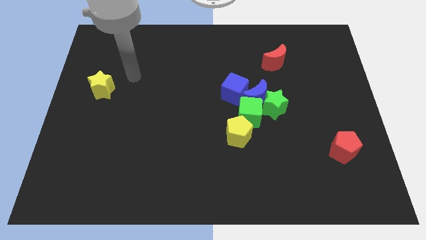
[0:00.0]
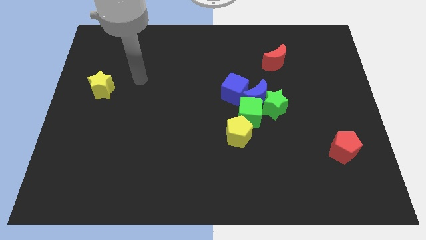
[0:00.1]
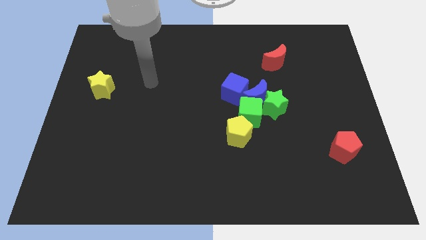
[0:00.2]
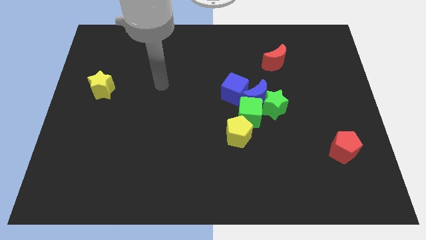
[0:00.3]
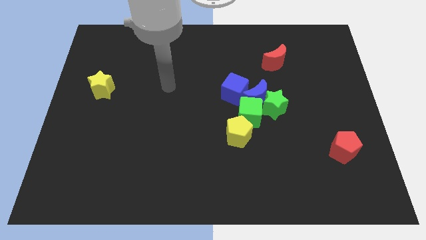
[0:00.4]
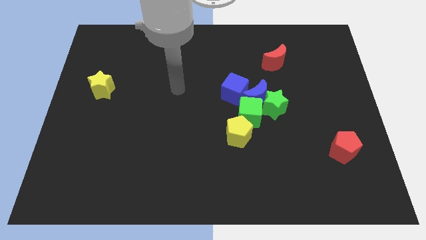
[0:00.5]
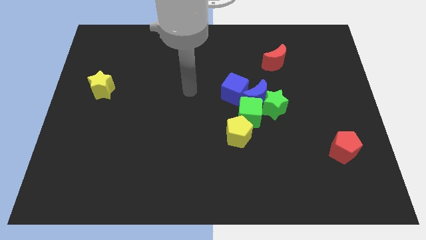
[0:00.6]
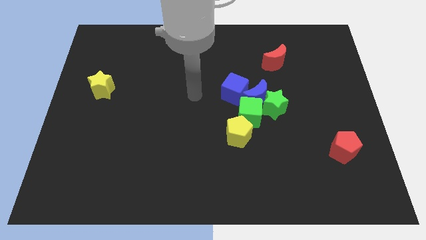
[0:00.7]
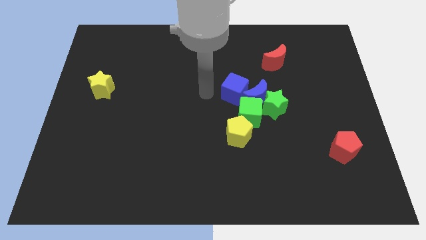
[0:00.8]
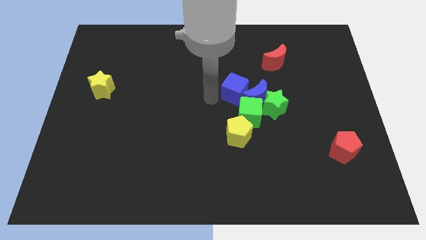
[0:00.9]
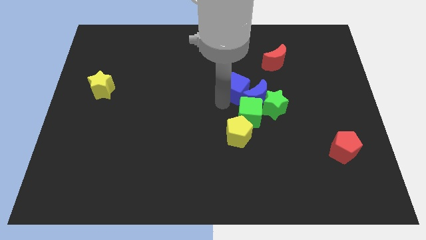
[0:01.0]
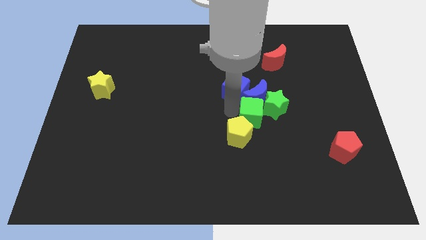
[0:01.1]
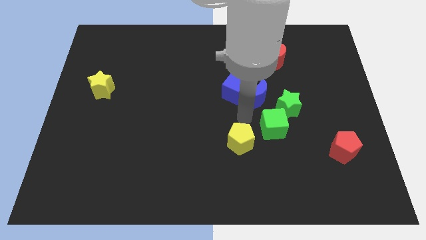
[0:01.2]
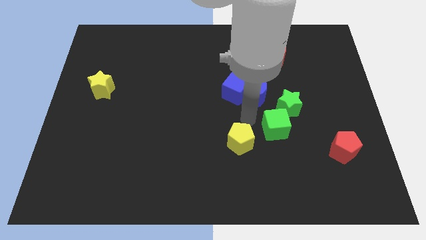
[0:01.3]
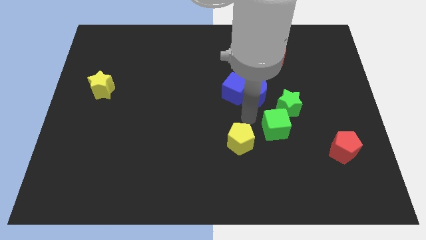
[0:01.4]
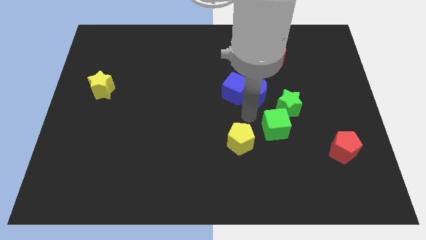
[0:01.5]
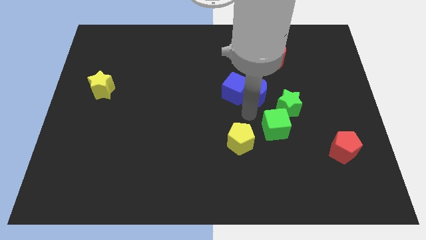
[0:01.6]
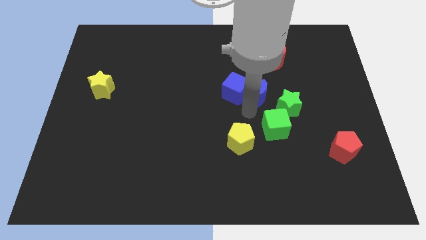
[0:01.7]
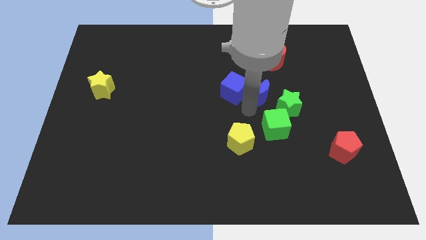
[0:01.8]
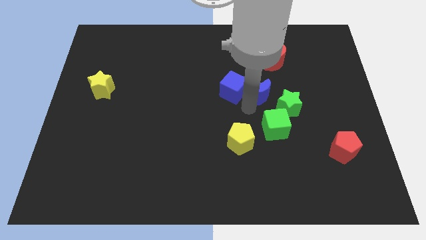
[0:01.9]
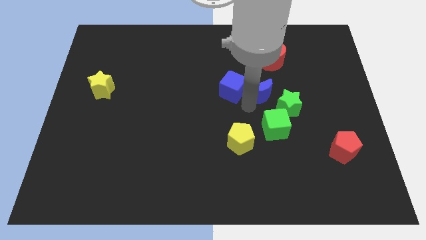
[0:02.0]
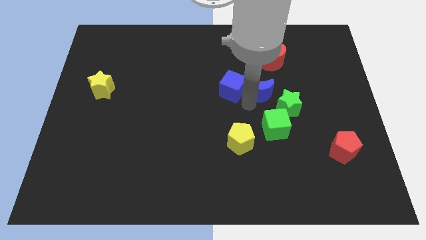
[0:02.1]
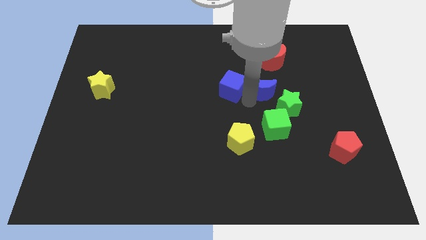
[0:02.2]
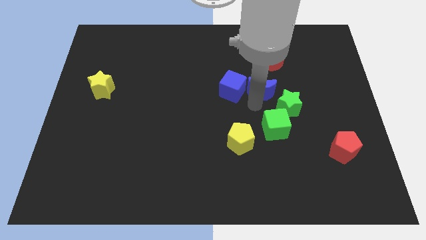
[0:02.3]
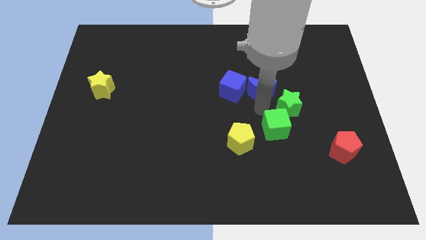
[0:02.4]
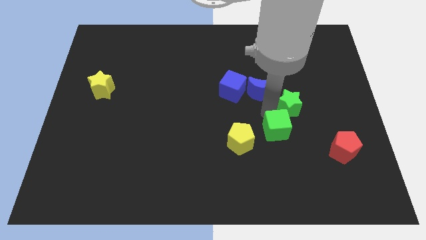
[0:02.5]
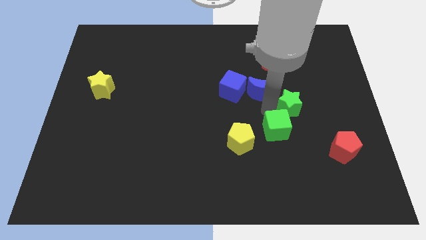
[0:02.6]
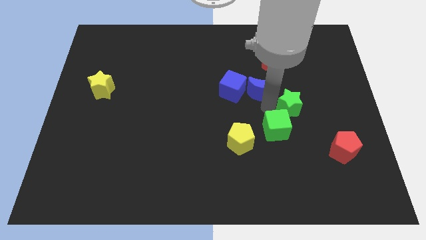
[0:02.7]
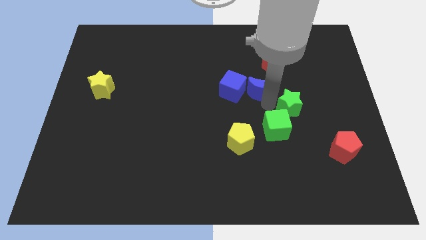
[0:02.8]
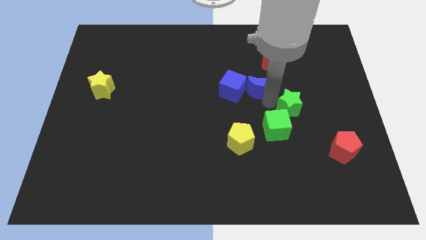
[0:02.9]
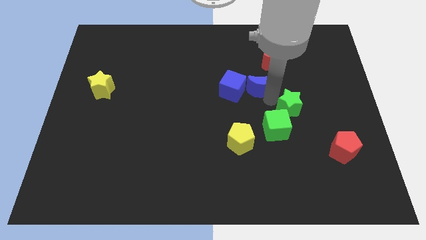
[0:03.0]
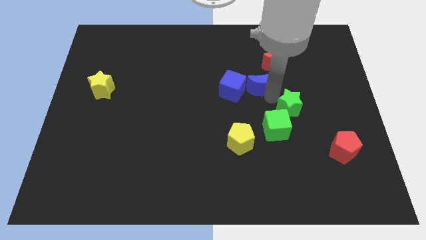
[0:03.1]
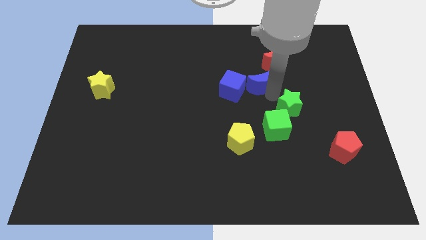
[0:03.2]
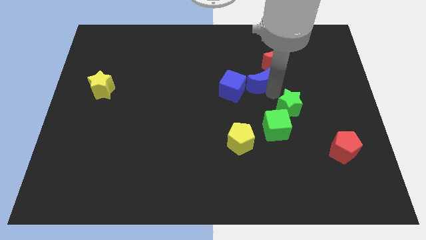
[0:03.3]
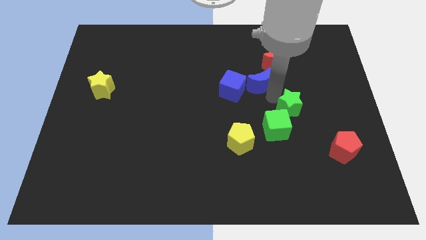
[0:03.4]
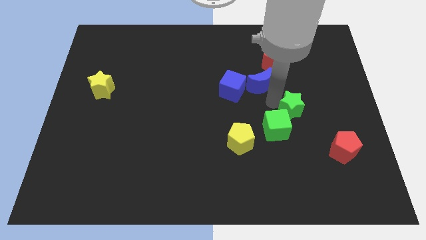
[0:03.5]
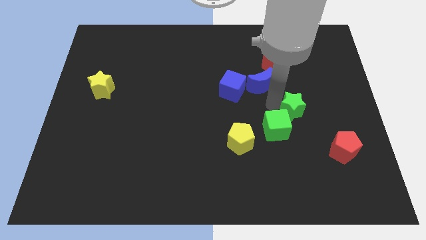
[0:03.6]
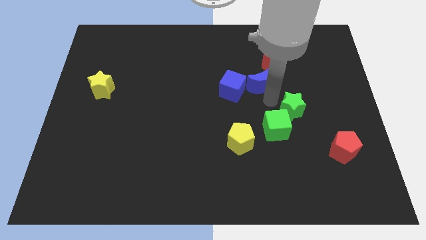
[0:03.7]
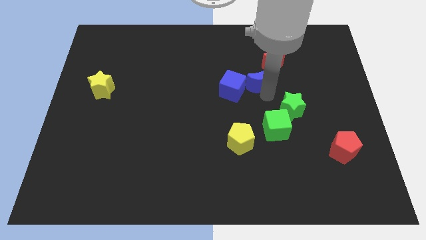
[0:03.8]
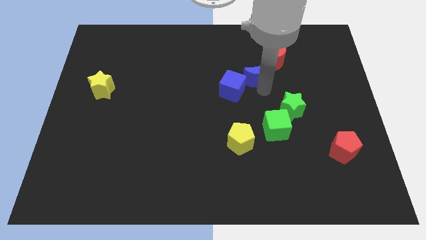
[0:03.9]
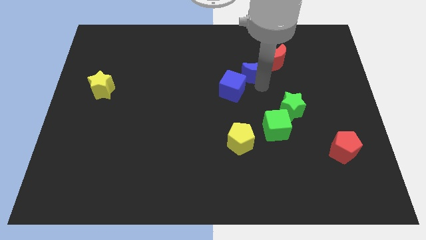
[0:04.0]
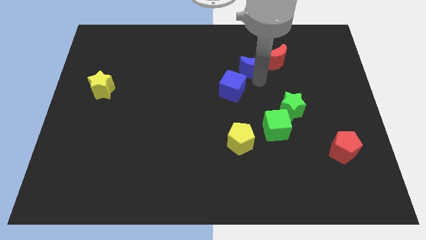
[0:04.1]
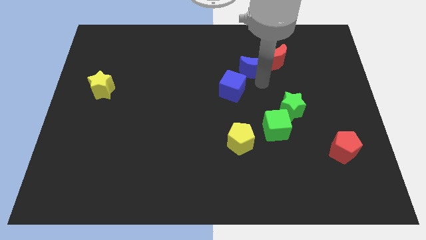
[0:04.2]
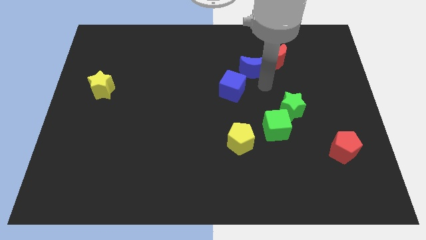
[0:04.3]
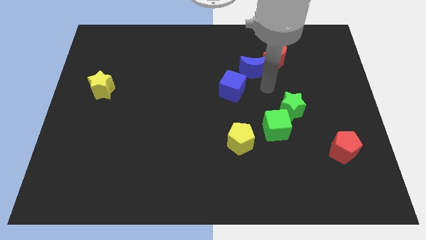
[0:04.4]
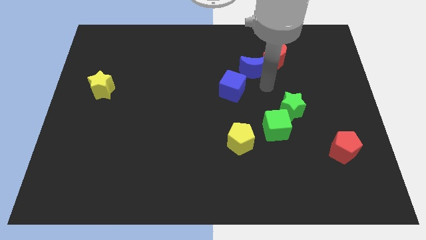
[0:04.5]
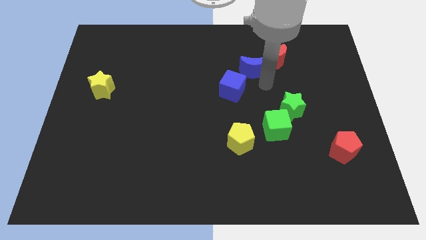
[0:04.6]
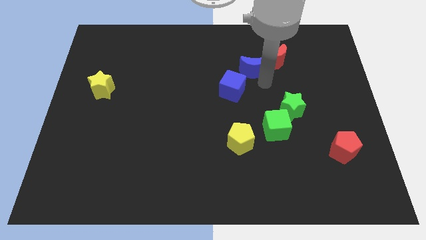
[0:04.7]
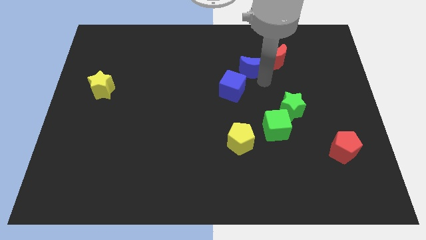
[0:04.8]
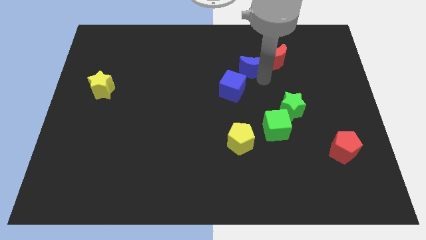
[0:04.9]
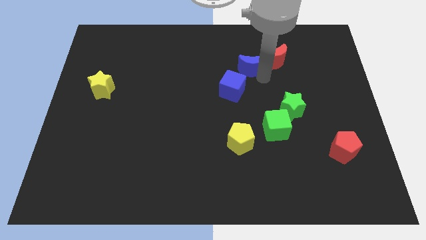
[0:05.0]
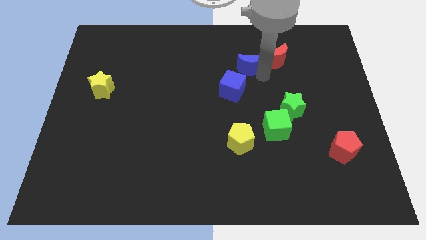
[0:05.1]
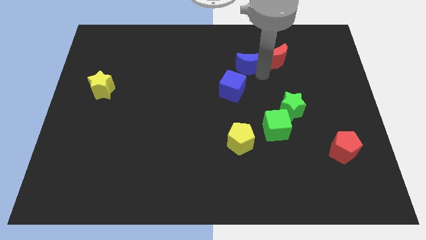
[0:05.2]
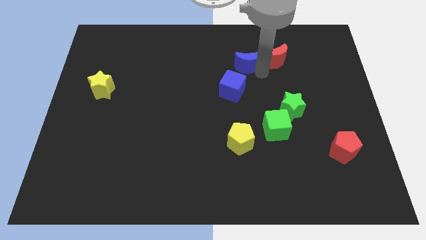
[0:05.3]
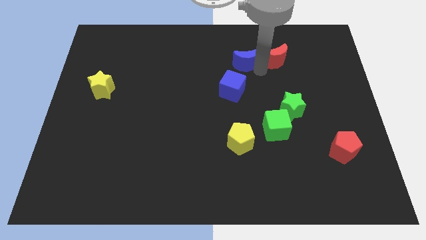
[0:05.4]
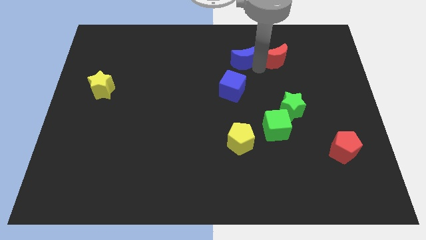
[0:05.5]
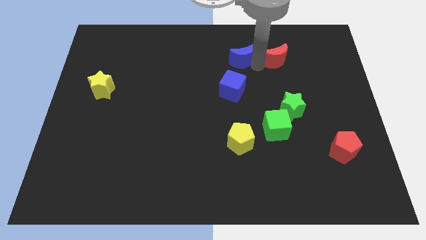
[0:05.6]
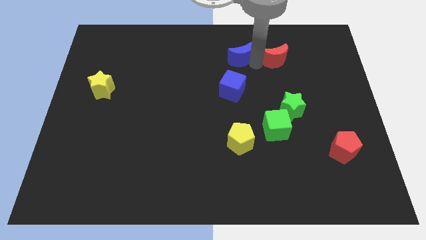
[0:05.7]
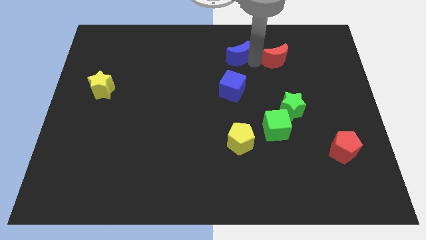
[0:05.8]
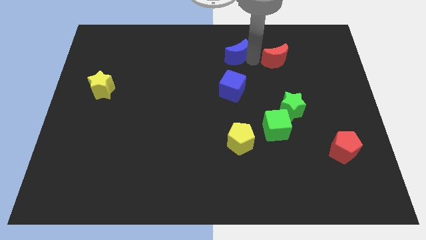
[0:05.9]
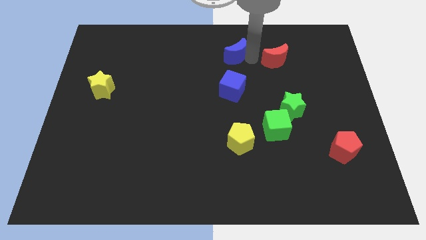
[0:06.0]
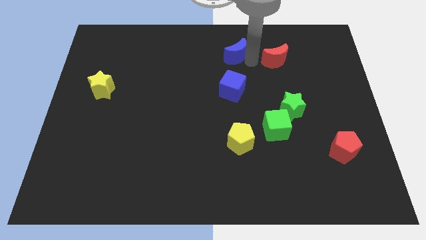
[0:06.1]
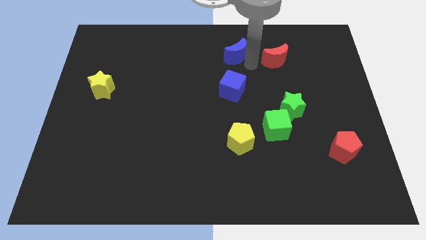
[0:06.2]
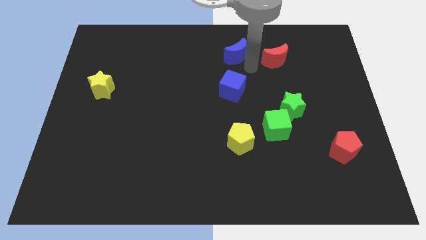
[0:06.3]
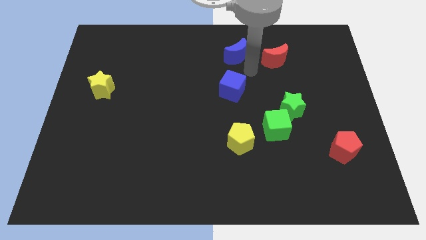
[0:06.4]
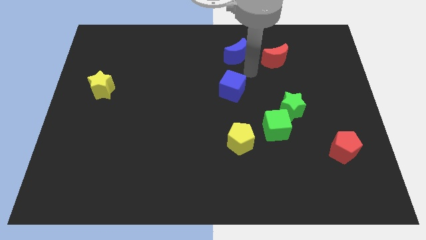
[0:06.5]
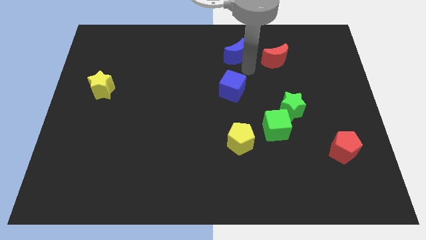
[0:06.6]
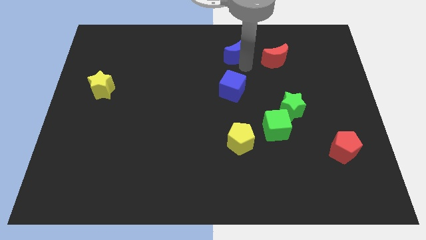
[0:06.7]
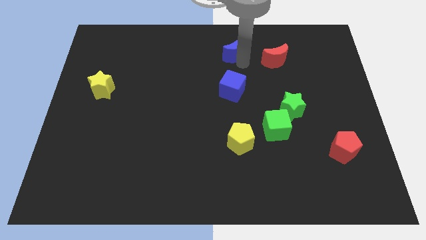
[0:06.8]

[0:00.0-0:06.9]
slide the blue moon to the top

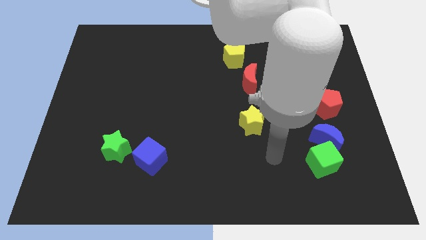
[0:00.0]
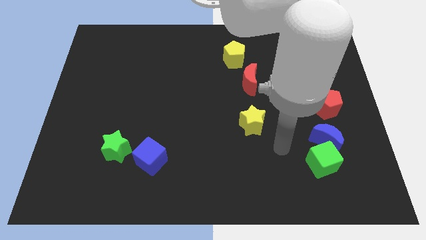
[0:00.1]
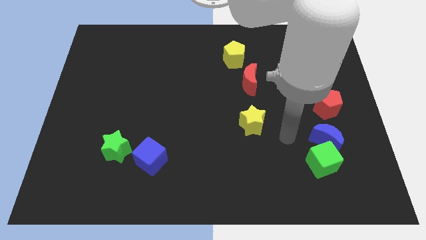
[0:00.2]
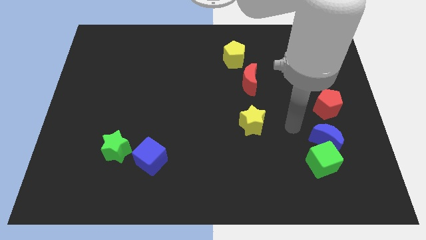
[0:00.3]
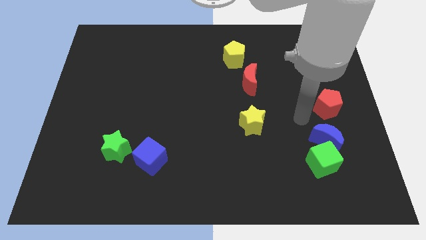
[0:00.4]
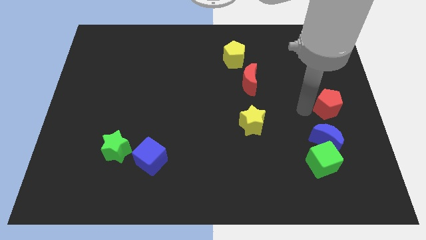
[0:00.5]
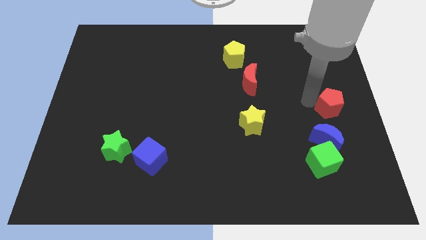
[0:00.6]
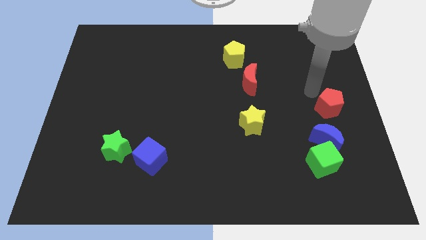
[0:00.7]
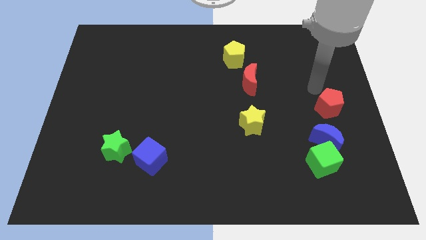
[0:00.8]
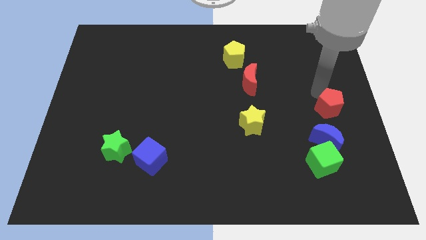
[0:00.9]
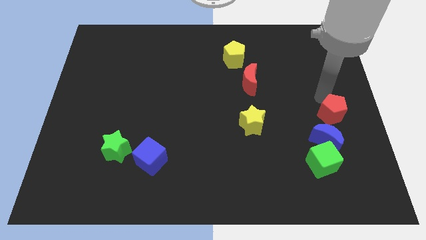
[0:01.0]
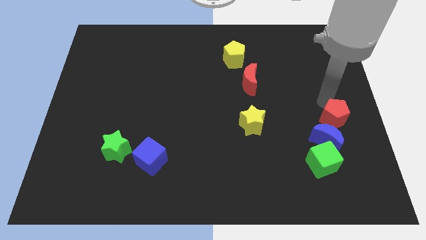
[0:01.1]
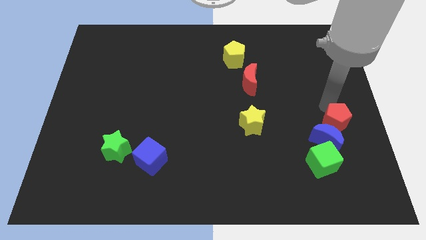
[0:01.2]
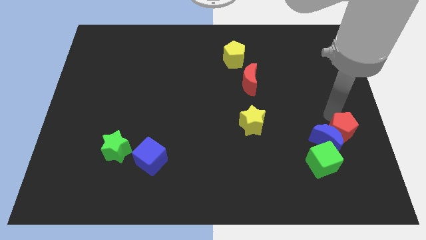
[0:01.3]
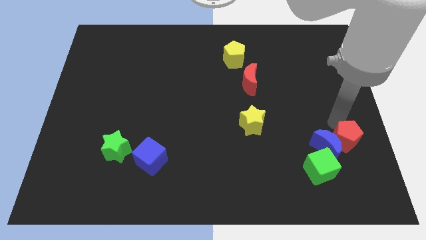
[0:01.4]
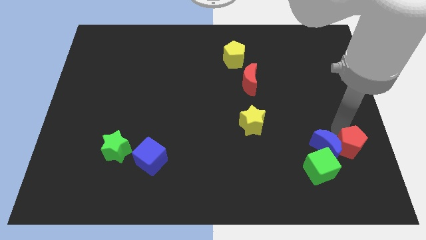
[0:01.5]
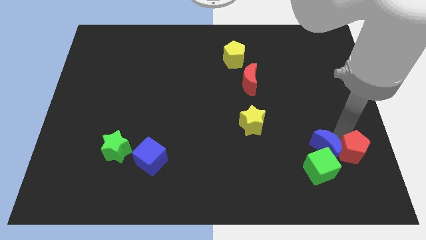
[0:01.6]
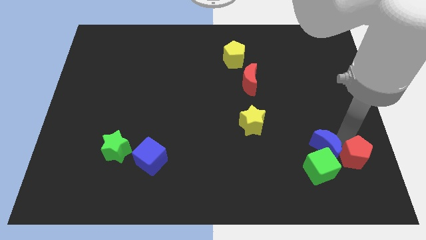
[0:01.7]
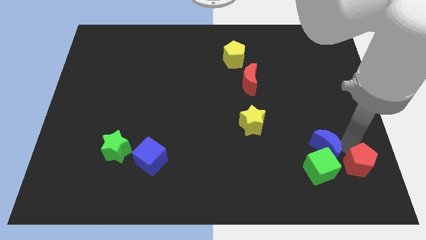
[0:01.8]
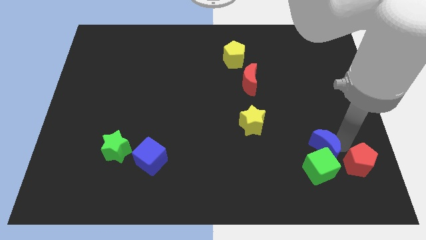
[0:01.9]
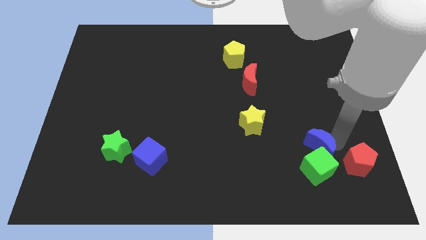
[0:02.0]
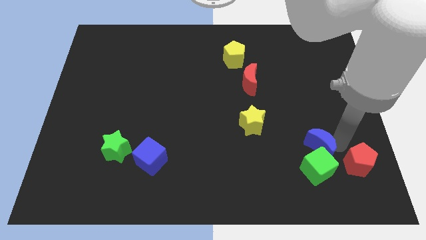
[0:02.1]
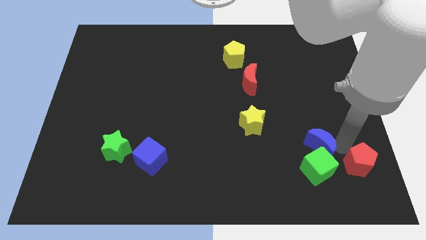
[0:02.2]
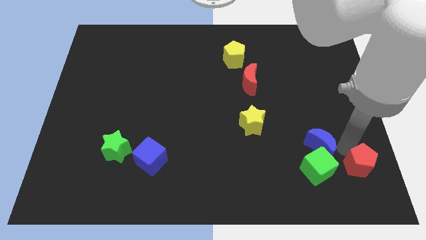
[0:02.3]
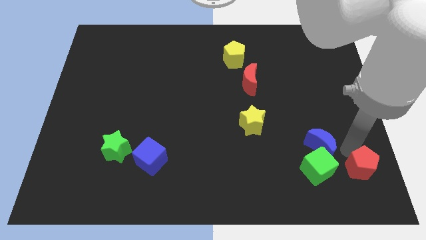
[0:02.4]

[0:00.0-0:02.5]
slide the red pentagon to the lower right corner
